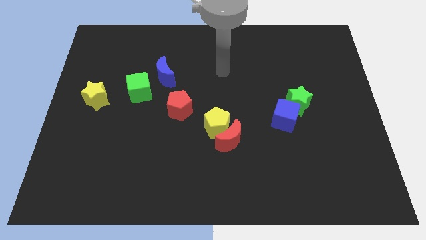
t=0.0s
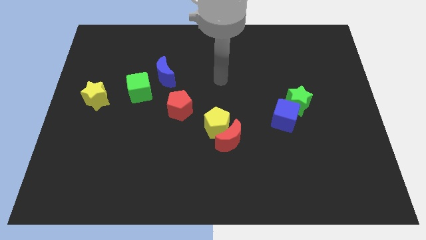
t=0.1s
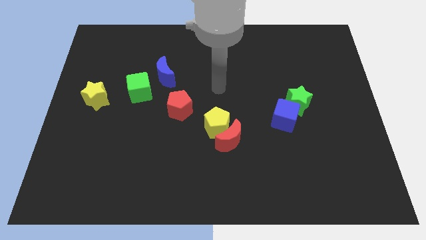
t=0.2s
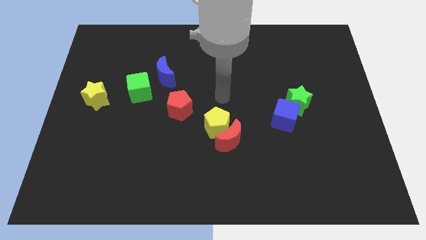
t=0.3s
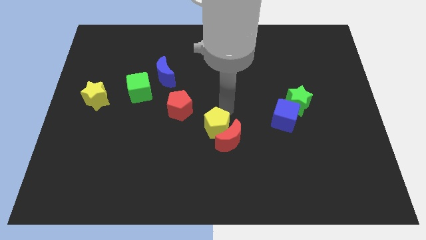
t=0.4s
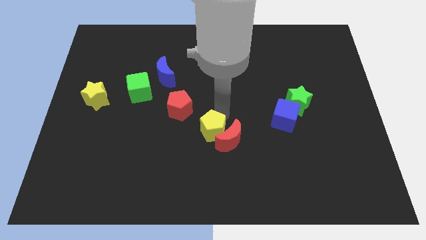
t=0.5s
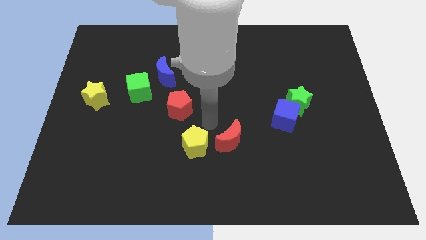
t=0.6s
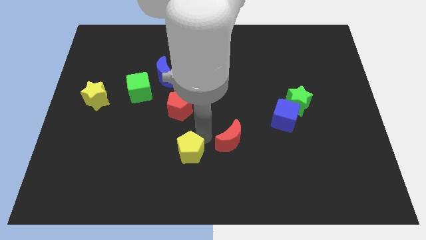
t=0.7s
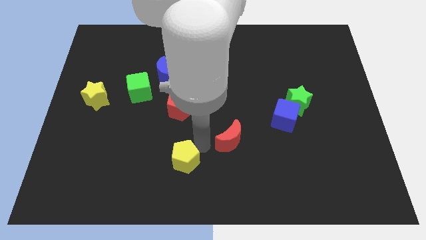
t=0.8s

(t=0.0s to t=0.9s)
pull the red moon apart from the yellow pentagon

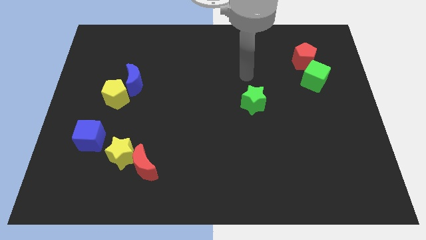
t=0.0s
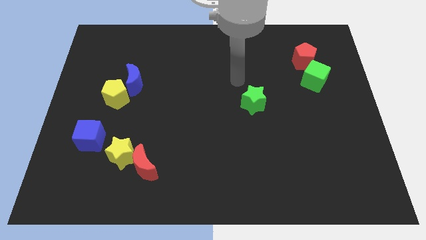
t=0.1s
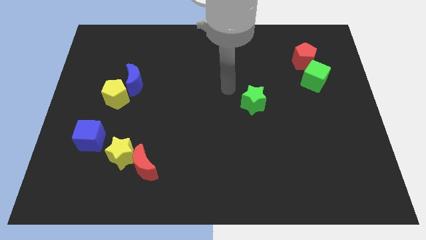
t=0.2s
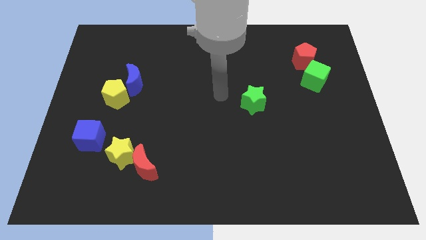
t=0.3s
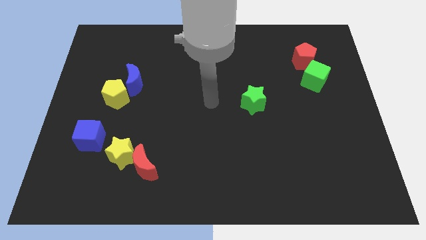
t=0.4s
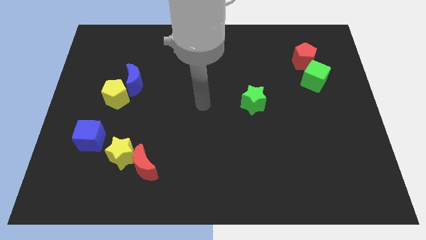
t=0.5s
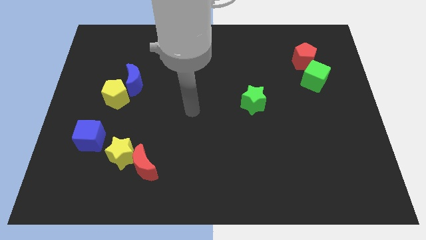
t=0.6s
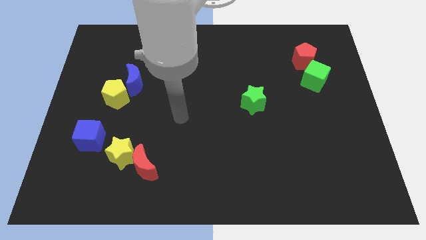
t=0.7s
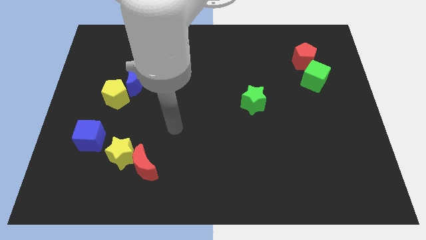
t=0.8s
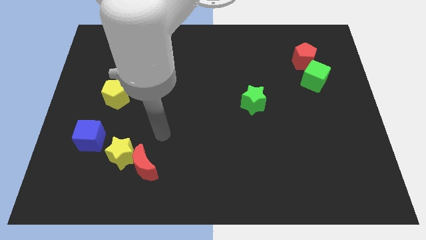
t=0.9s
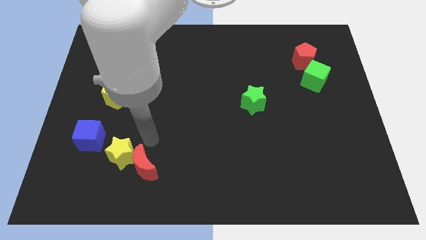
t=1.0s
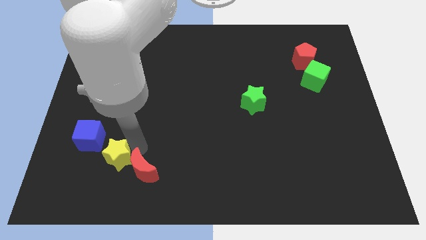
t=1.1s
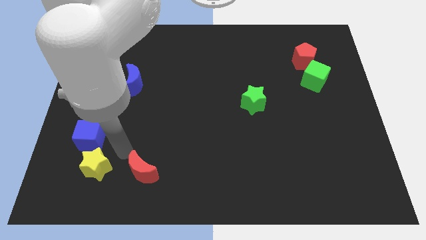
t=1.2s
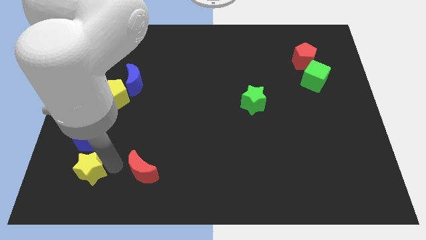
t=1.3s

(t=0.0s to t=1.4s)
separate the red moon from the yellow star

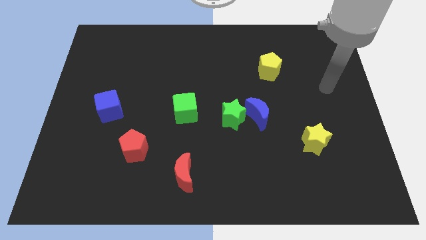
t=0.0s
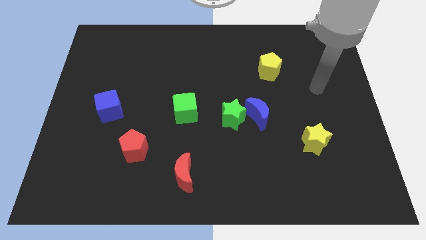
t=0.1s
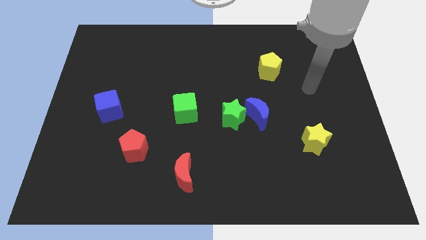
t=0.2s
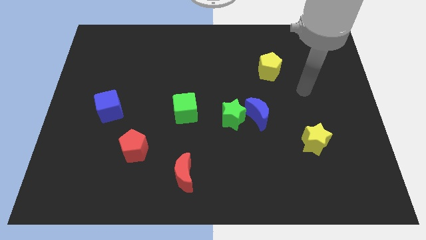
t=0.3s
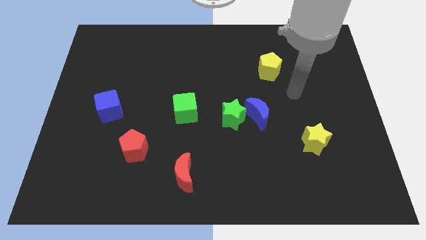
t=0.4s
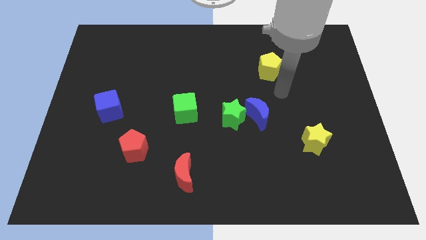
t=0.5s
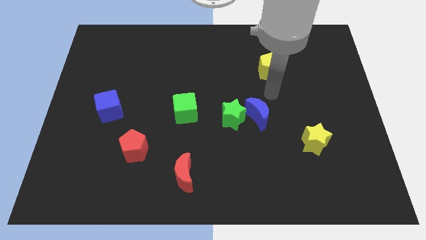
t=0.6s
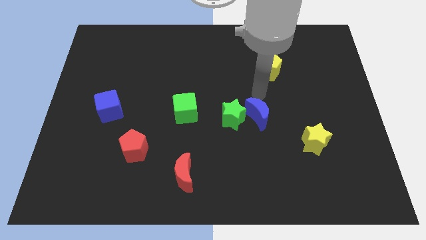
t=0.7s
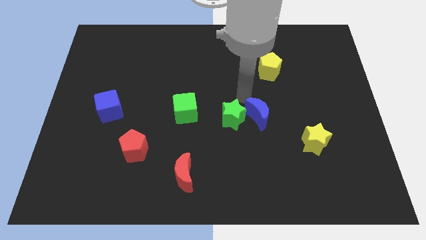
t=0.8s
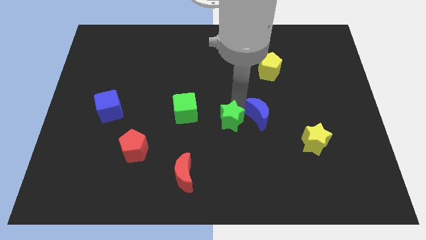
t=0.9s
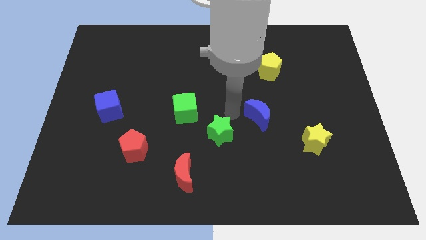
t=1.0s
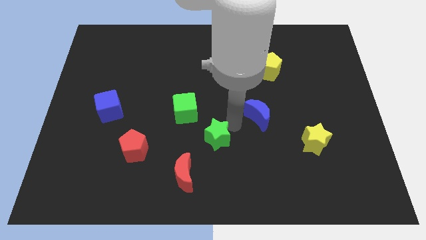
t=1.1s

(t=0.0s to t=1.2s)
move the blue moon away from the green star

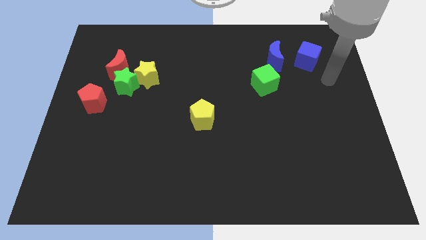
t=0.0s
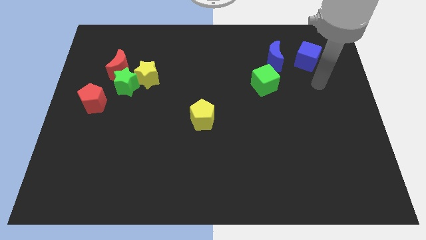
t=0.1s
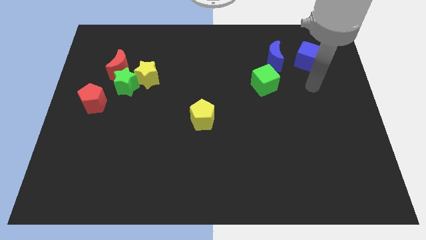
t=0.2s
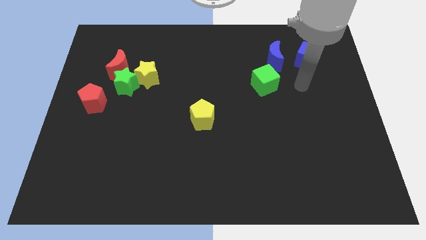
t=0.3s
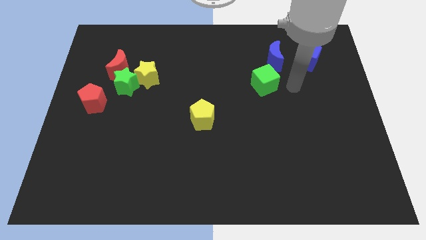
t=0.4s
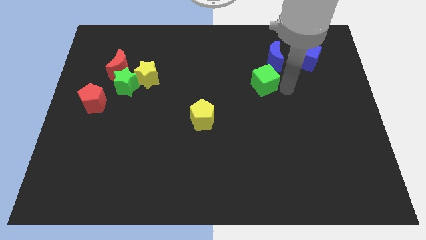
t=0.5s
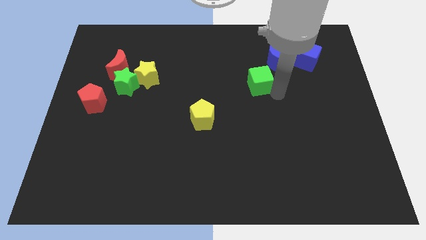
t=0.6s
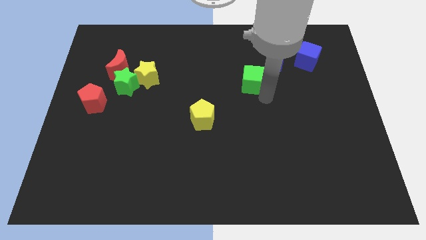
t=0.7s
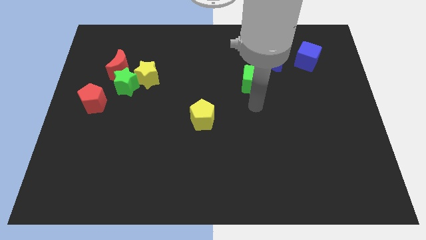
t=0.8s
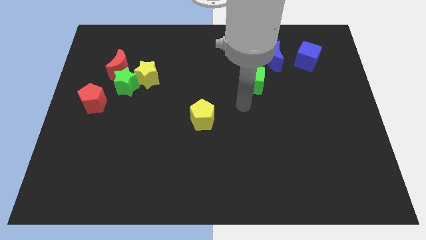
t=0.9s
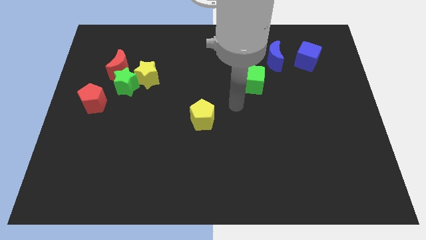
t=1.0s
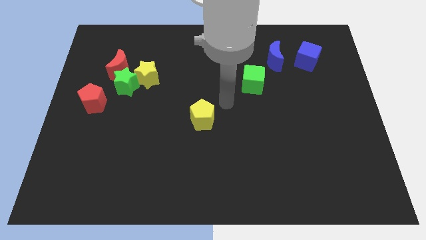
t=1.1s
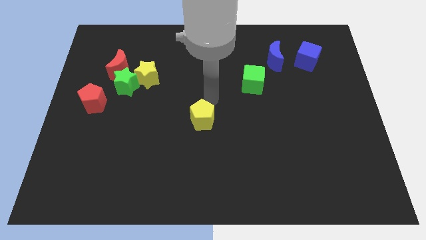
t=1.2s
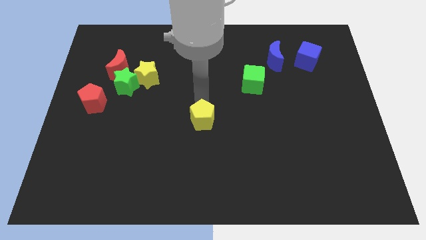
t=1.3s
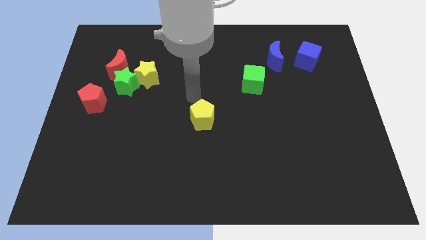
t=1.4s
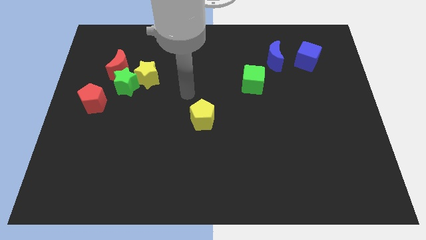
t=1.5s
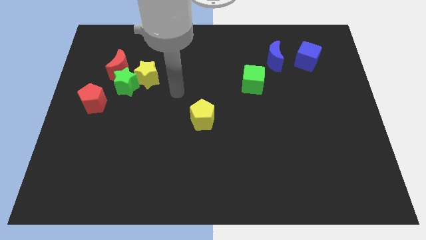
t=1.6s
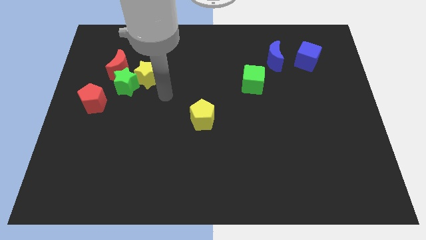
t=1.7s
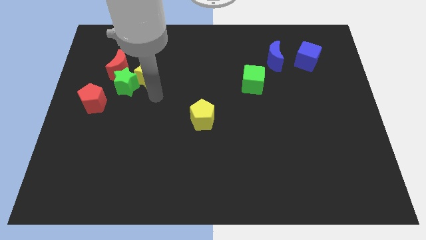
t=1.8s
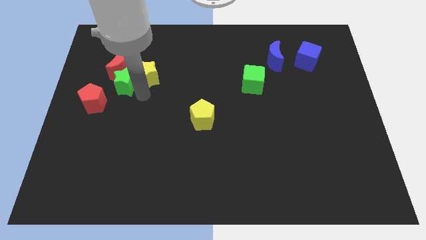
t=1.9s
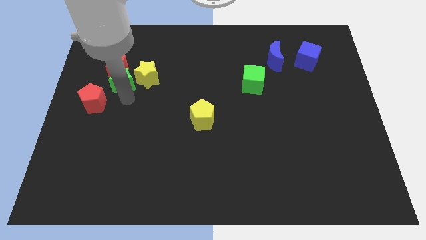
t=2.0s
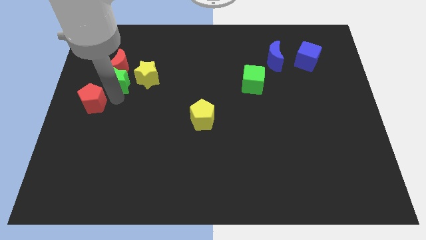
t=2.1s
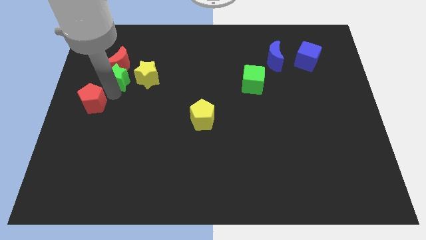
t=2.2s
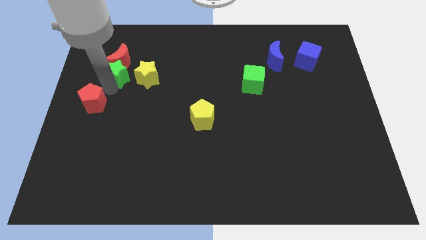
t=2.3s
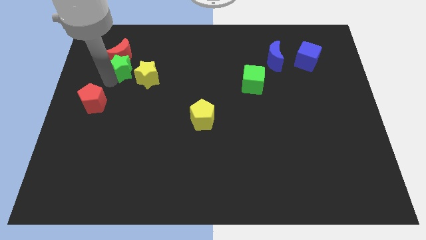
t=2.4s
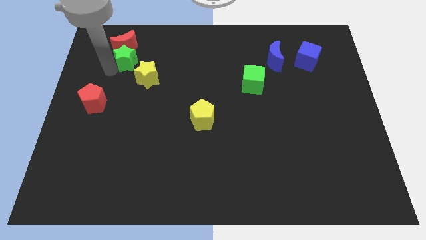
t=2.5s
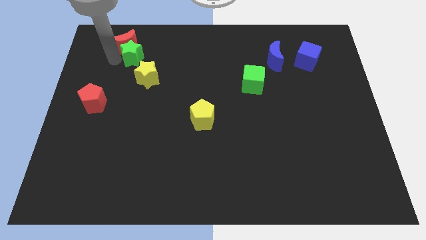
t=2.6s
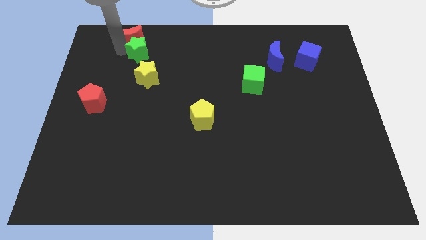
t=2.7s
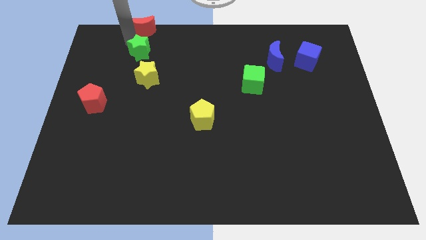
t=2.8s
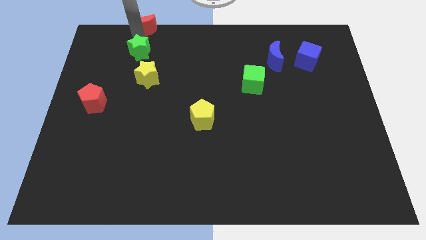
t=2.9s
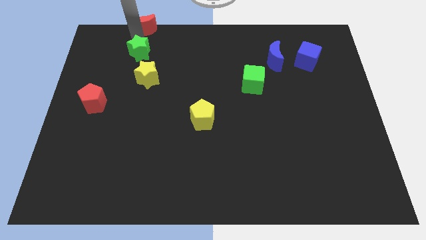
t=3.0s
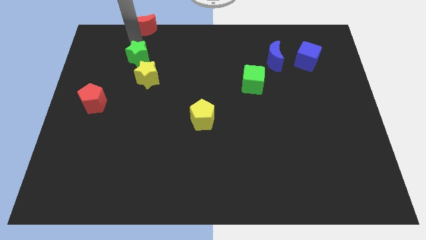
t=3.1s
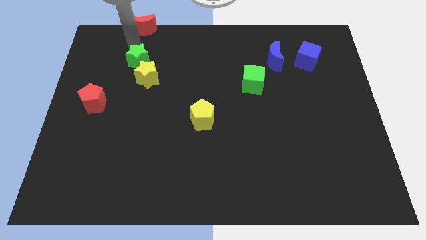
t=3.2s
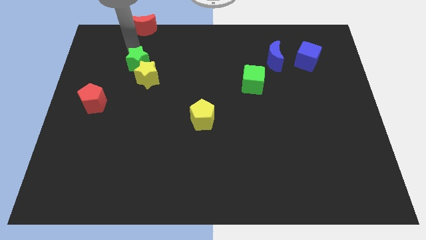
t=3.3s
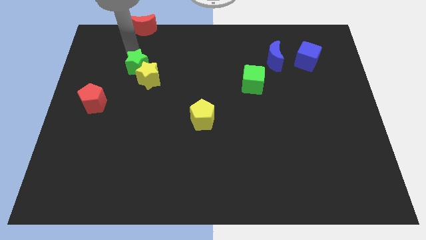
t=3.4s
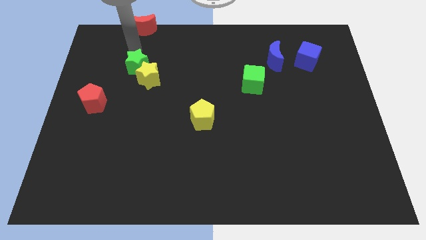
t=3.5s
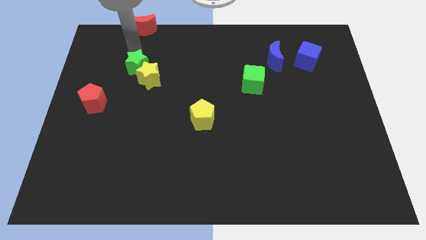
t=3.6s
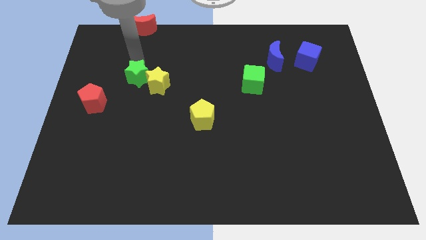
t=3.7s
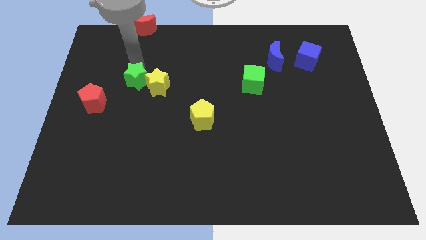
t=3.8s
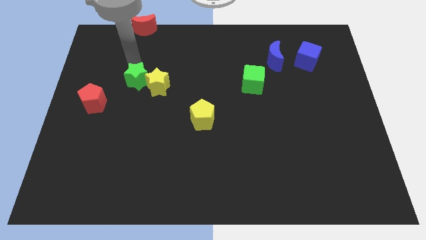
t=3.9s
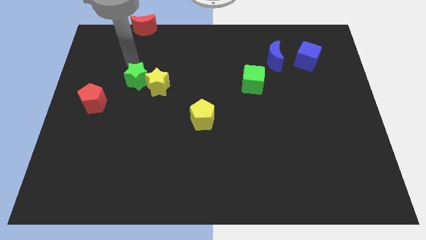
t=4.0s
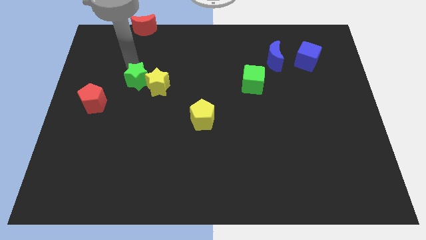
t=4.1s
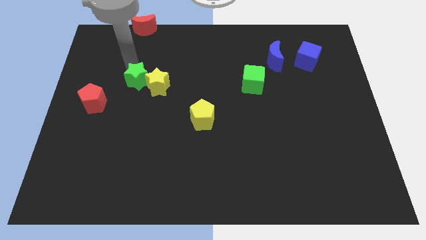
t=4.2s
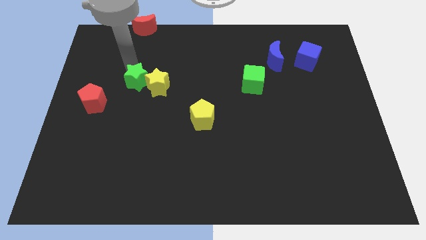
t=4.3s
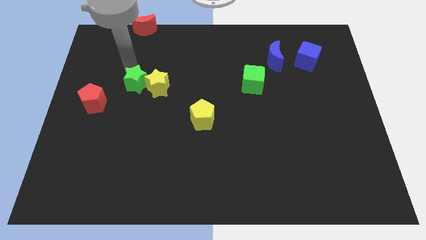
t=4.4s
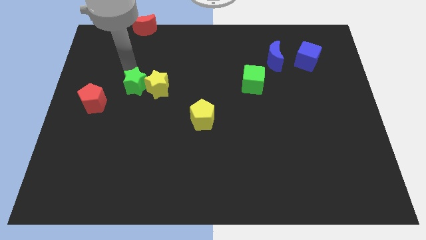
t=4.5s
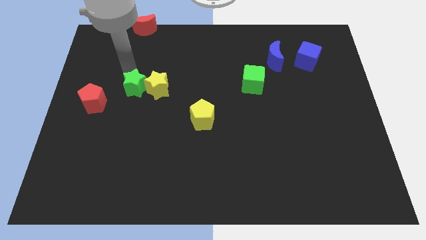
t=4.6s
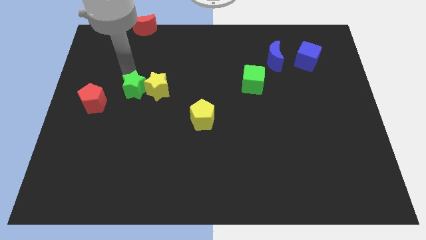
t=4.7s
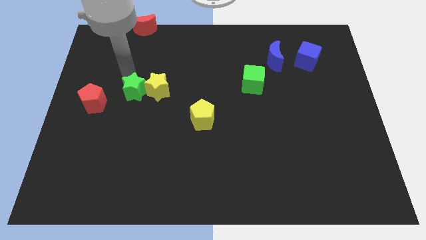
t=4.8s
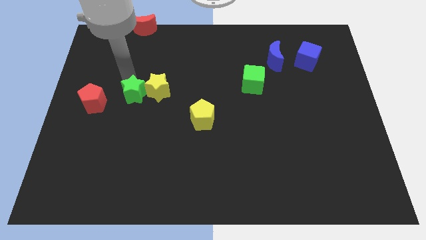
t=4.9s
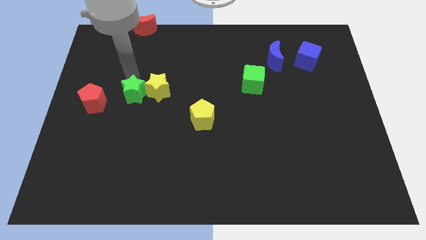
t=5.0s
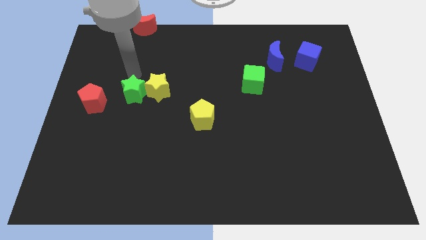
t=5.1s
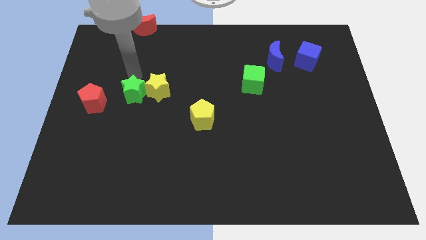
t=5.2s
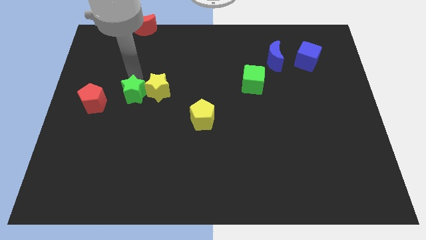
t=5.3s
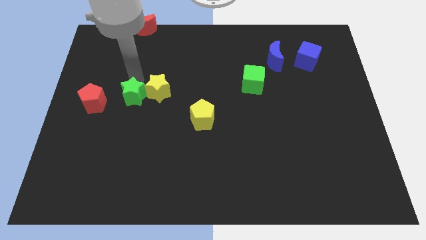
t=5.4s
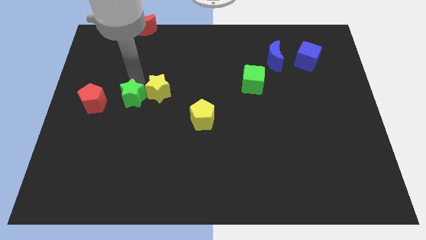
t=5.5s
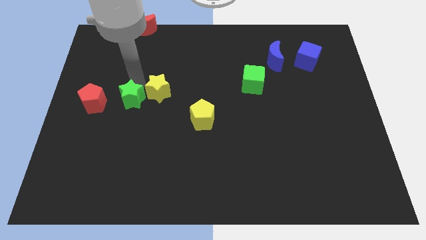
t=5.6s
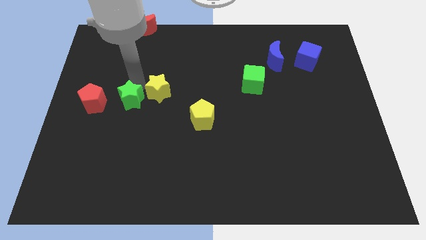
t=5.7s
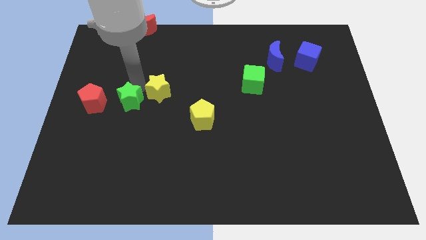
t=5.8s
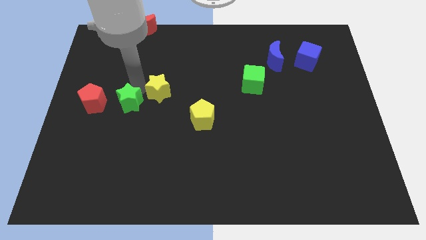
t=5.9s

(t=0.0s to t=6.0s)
pull the green star apart from the clump
